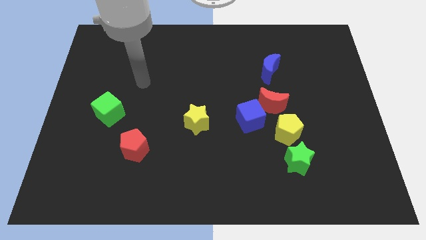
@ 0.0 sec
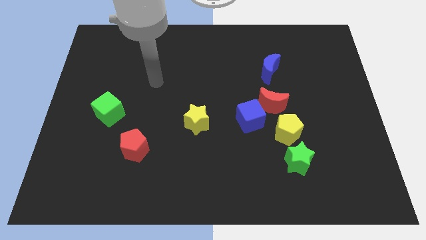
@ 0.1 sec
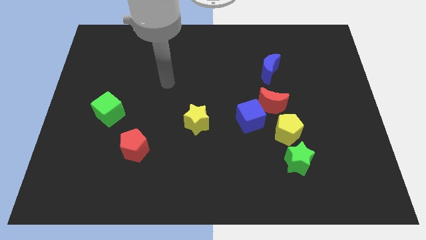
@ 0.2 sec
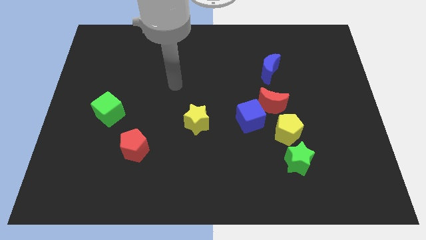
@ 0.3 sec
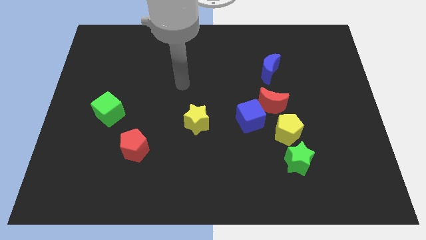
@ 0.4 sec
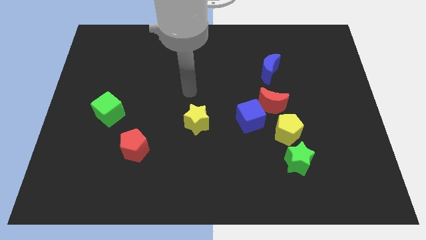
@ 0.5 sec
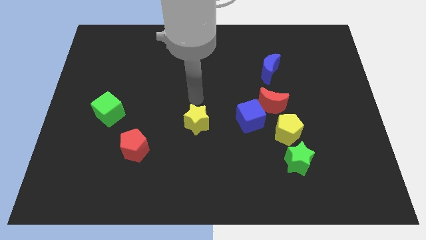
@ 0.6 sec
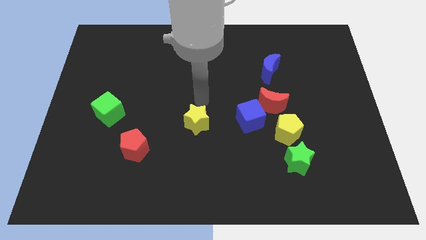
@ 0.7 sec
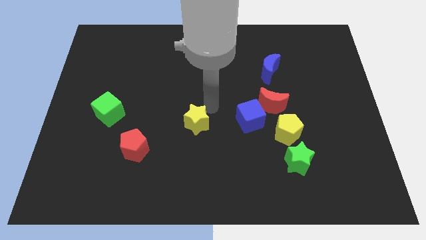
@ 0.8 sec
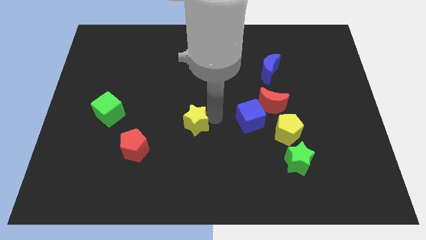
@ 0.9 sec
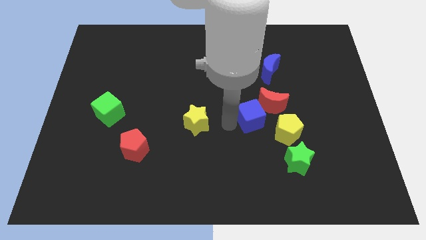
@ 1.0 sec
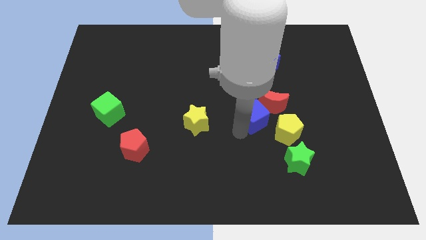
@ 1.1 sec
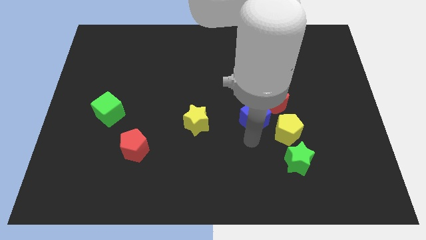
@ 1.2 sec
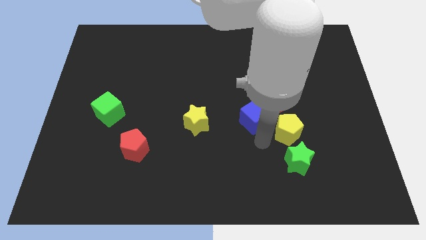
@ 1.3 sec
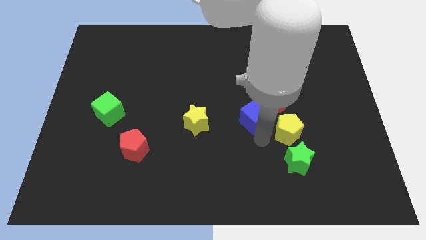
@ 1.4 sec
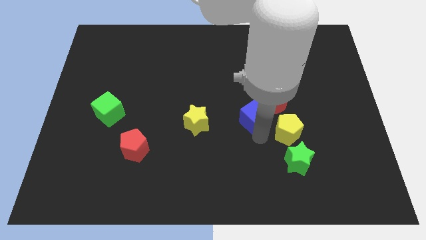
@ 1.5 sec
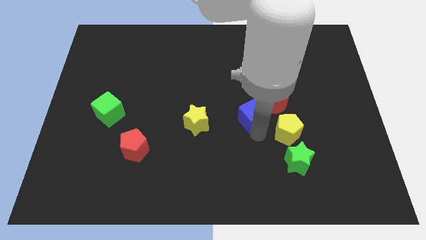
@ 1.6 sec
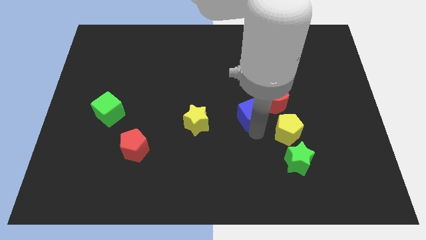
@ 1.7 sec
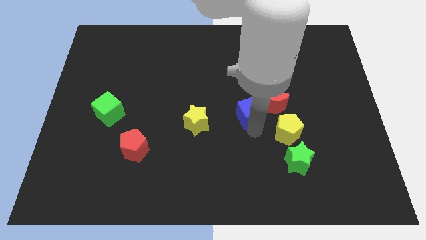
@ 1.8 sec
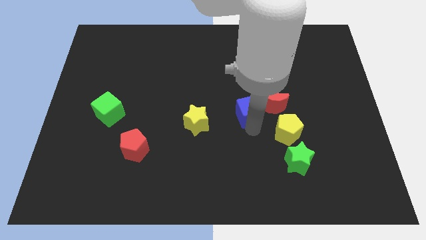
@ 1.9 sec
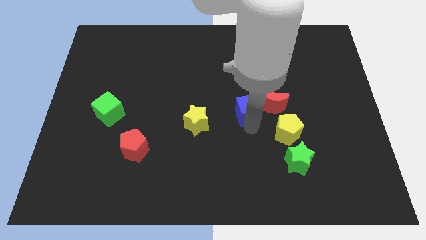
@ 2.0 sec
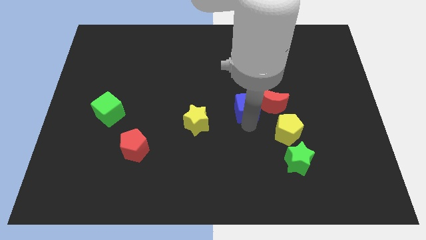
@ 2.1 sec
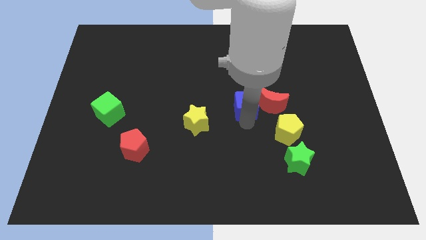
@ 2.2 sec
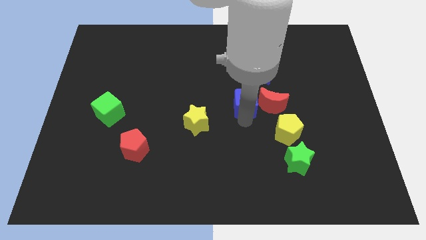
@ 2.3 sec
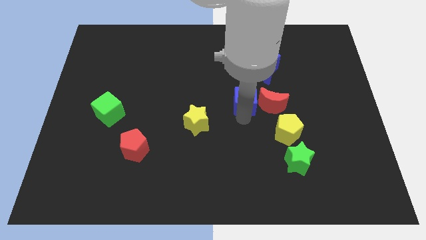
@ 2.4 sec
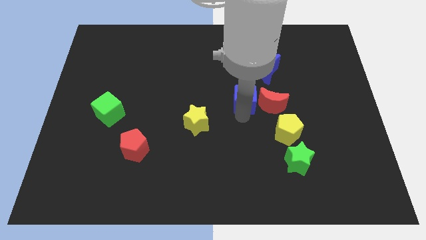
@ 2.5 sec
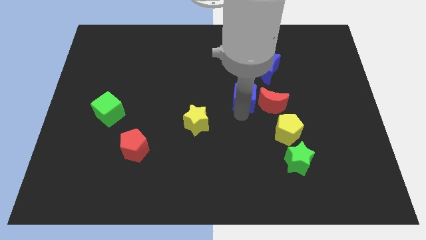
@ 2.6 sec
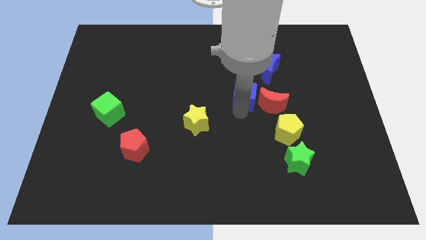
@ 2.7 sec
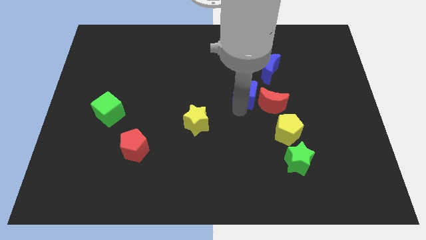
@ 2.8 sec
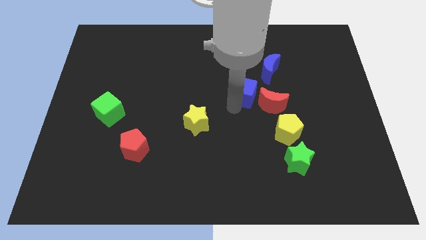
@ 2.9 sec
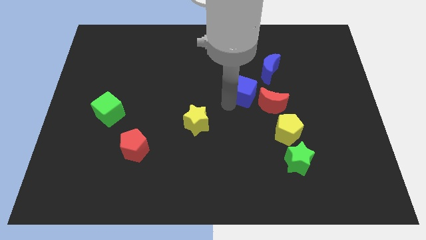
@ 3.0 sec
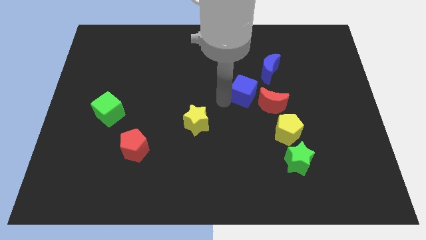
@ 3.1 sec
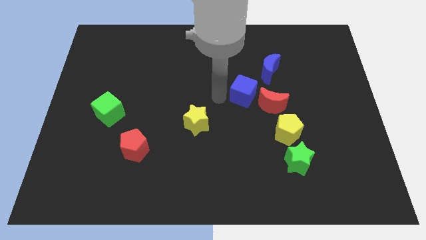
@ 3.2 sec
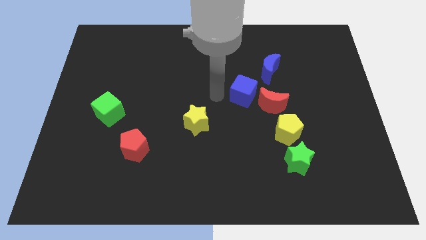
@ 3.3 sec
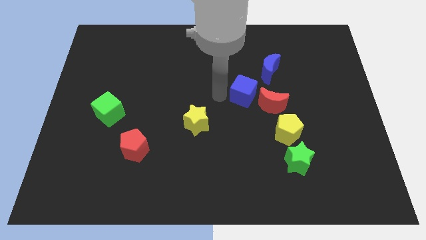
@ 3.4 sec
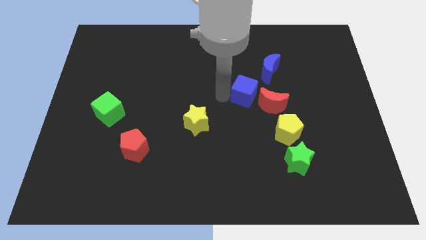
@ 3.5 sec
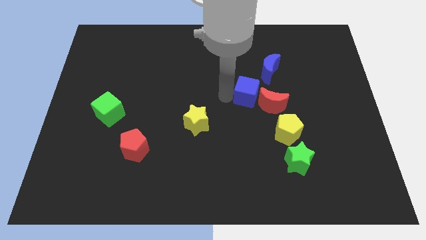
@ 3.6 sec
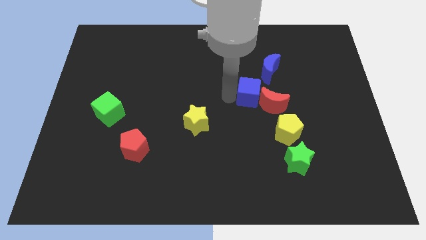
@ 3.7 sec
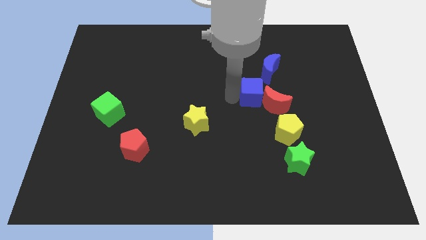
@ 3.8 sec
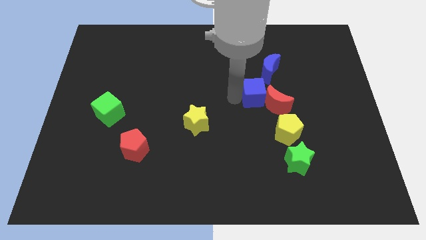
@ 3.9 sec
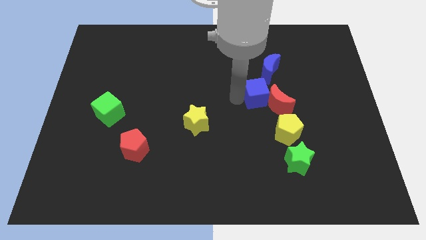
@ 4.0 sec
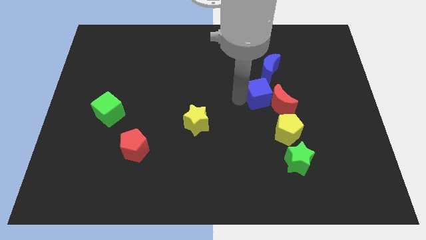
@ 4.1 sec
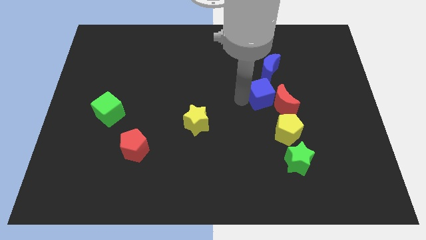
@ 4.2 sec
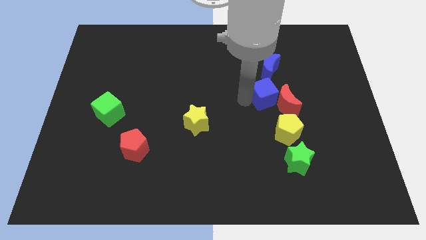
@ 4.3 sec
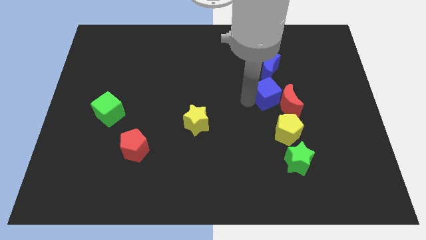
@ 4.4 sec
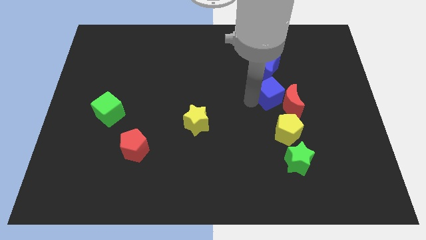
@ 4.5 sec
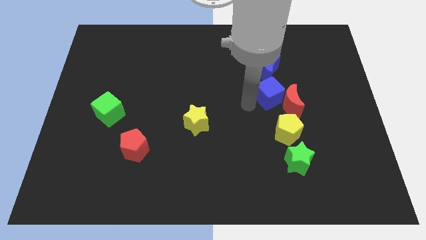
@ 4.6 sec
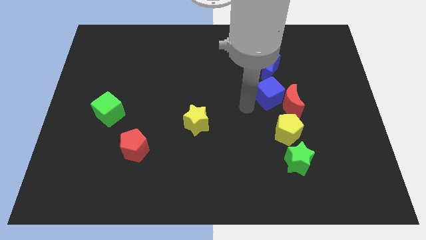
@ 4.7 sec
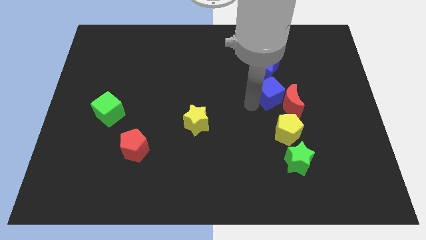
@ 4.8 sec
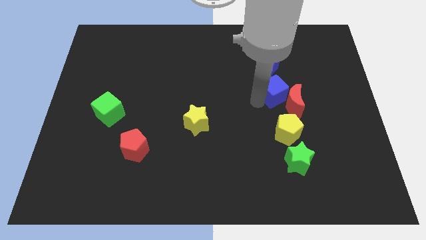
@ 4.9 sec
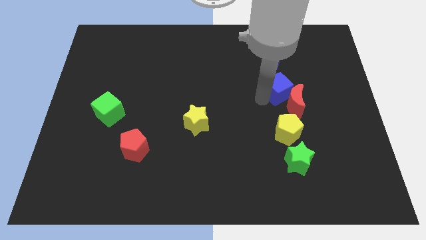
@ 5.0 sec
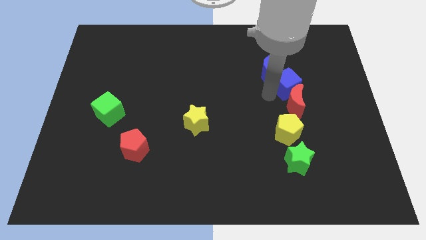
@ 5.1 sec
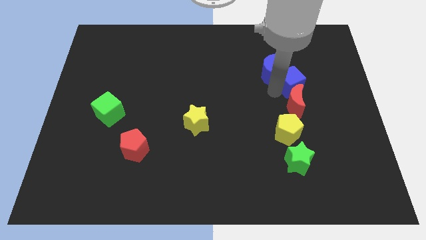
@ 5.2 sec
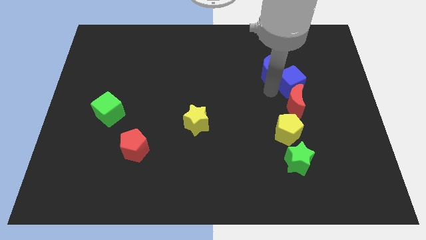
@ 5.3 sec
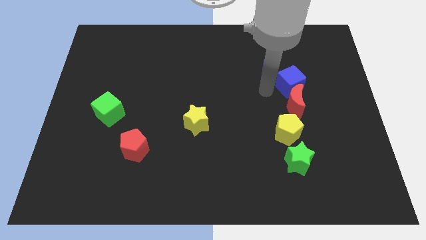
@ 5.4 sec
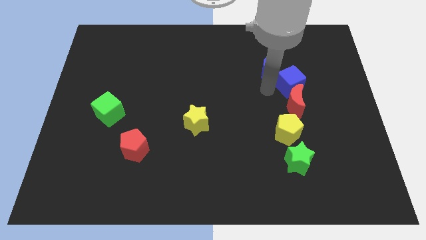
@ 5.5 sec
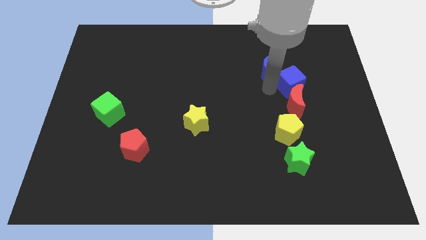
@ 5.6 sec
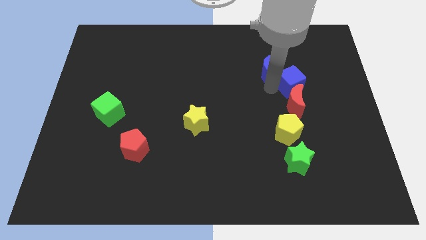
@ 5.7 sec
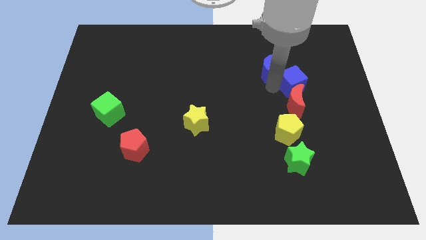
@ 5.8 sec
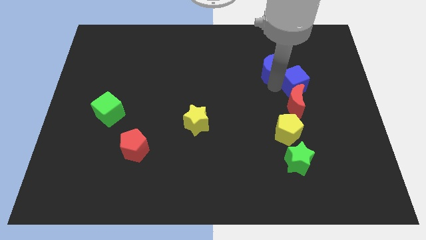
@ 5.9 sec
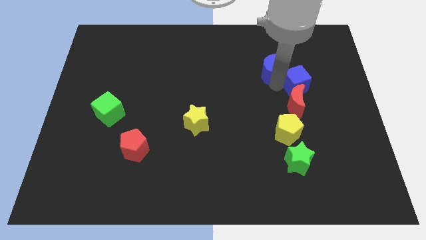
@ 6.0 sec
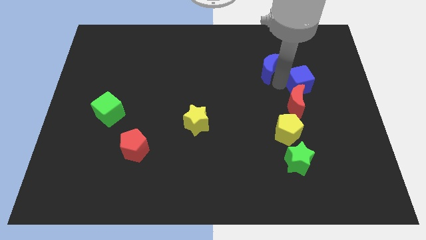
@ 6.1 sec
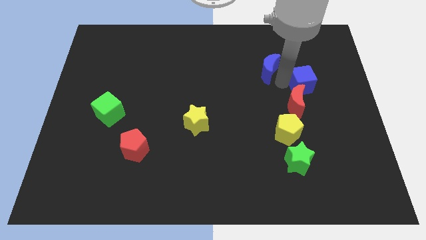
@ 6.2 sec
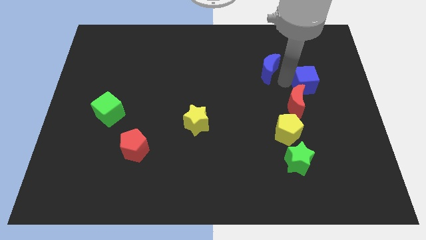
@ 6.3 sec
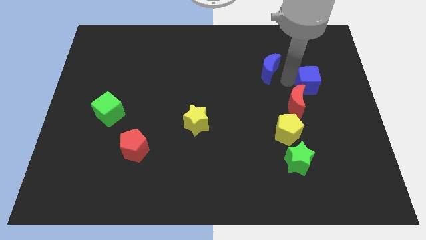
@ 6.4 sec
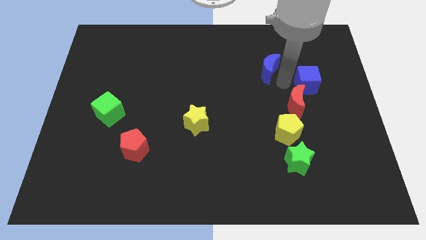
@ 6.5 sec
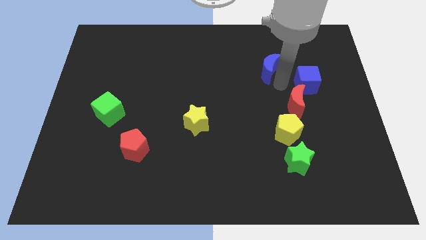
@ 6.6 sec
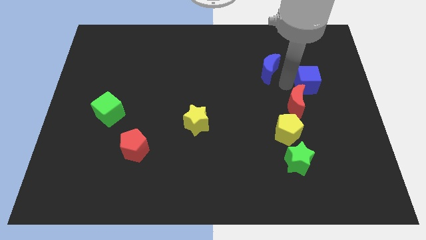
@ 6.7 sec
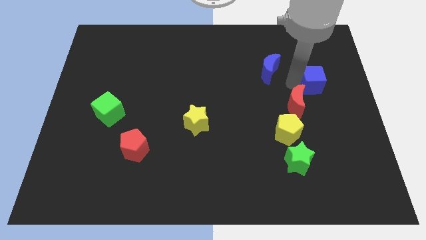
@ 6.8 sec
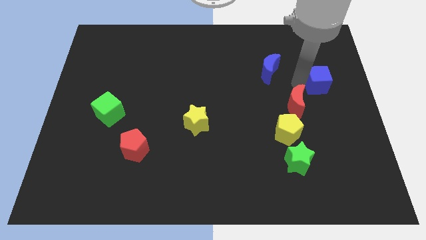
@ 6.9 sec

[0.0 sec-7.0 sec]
slide the blue cube to the center right

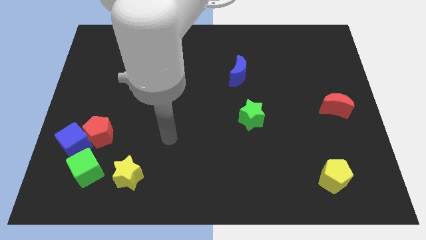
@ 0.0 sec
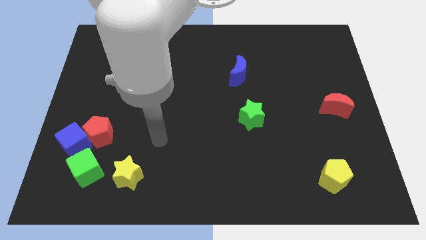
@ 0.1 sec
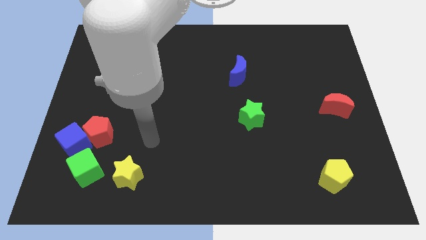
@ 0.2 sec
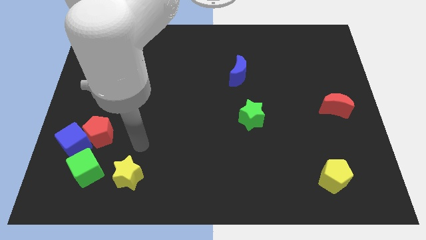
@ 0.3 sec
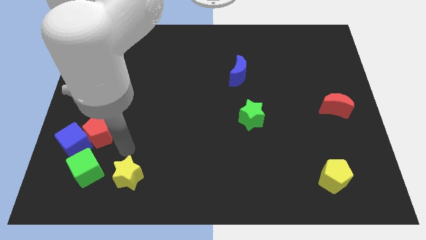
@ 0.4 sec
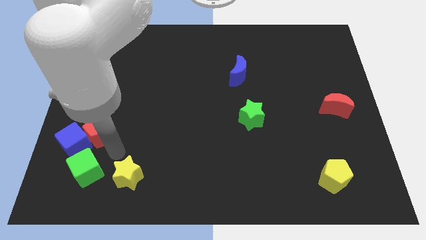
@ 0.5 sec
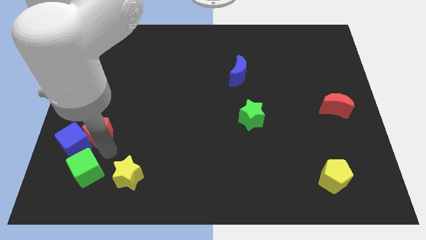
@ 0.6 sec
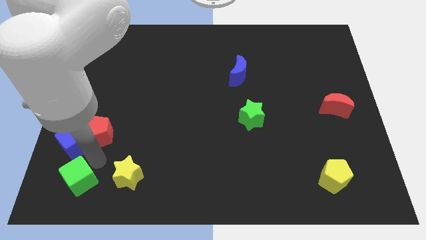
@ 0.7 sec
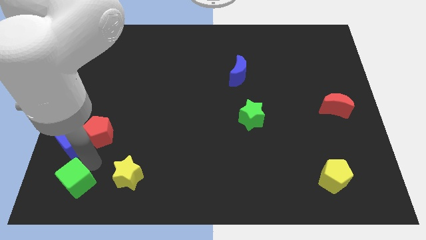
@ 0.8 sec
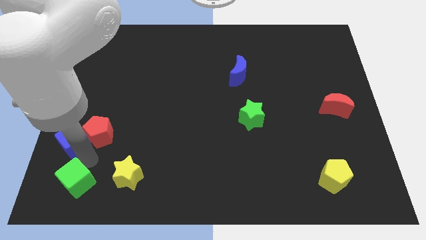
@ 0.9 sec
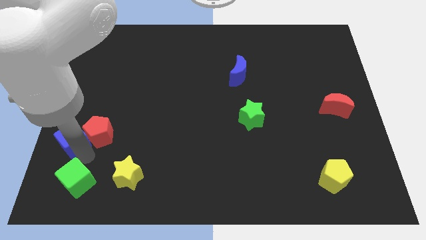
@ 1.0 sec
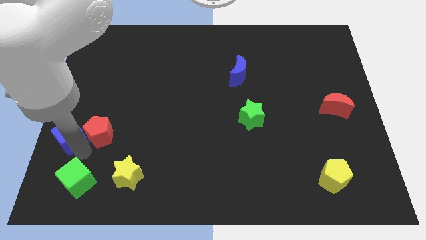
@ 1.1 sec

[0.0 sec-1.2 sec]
move the blue cube to the center left

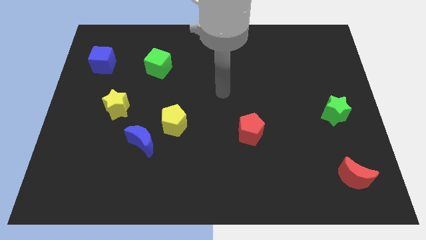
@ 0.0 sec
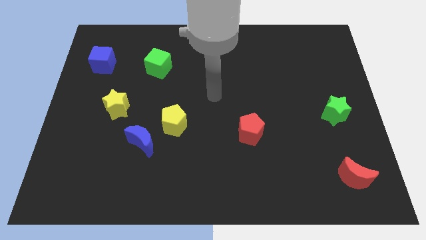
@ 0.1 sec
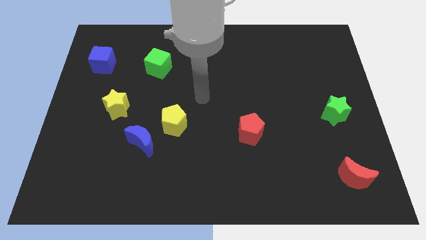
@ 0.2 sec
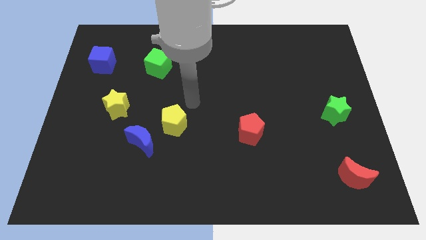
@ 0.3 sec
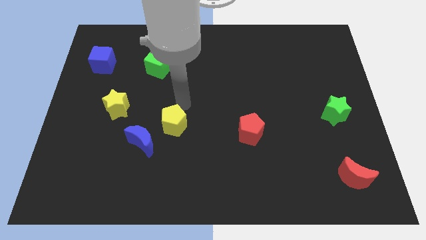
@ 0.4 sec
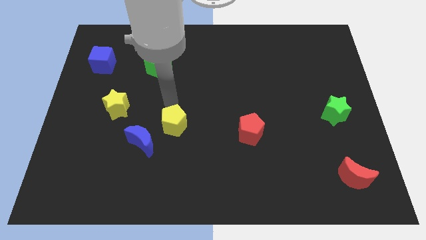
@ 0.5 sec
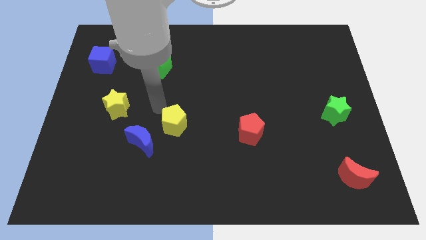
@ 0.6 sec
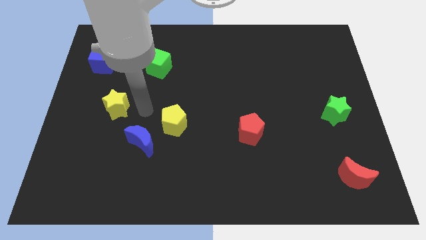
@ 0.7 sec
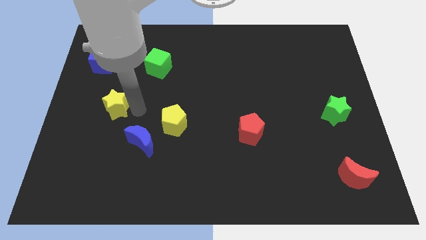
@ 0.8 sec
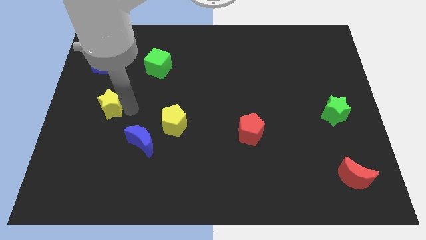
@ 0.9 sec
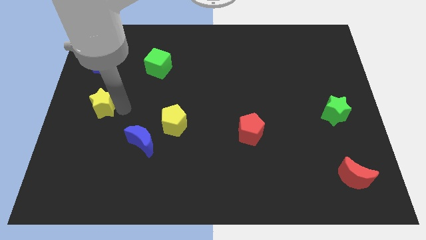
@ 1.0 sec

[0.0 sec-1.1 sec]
push the yellow star to the center left
